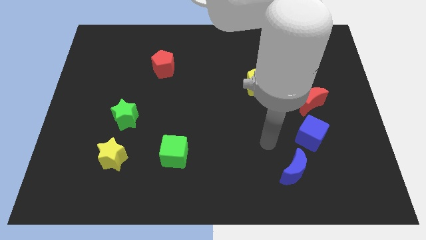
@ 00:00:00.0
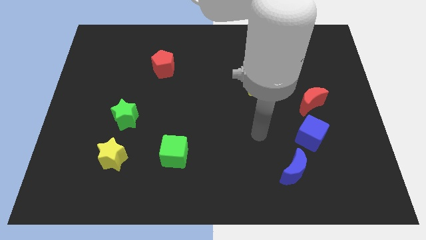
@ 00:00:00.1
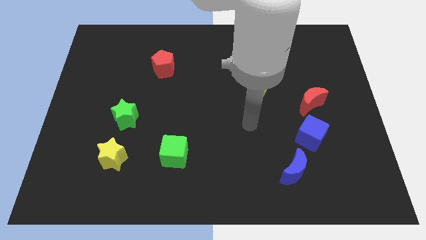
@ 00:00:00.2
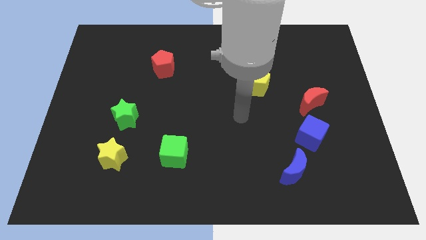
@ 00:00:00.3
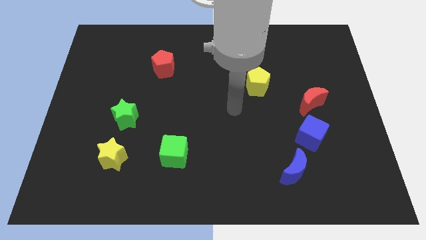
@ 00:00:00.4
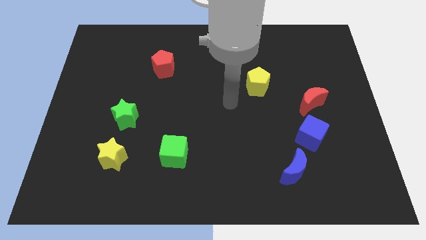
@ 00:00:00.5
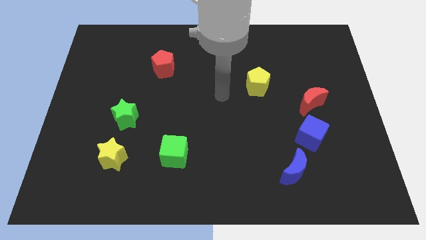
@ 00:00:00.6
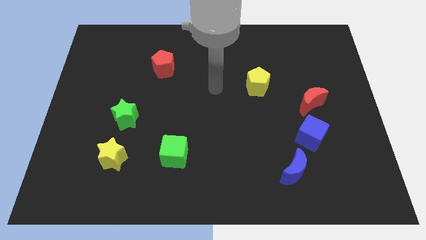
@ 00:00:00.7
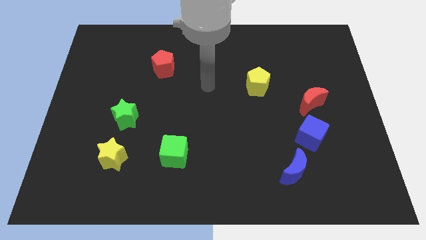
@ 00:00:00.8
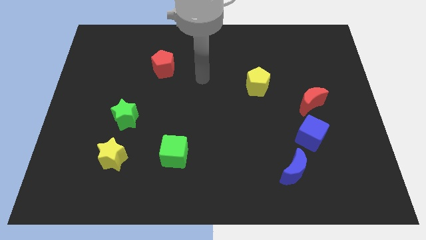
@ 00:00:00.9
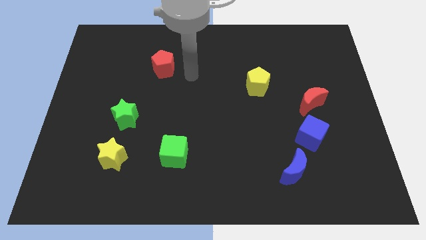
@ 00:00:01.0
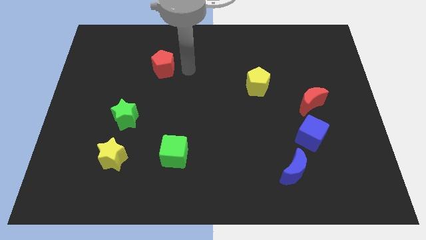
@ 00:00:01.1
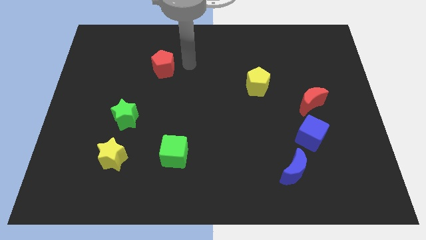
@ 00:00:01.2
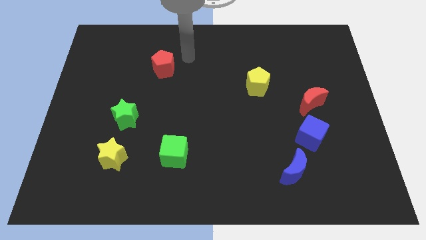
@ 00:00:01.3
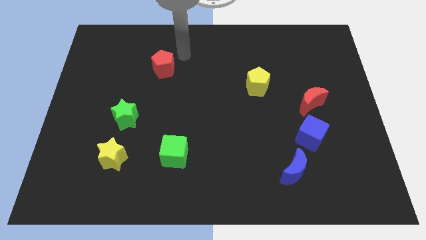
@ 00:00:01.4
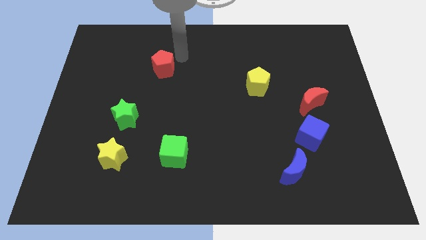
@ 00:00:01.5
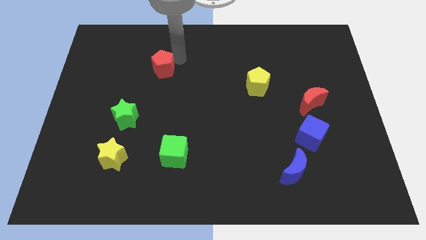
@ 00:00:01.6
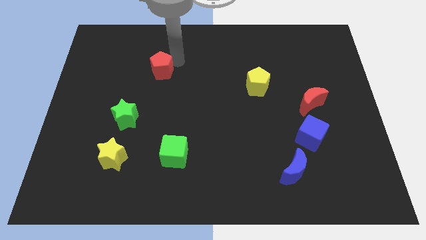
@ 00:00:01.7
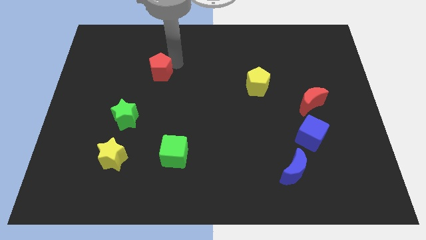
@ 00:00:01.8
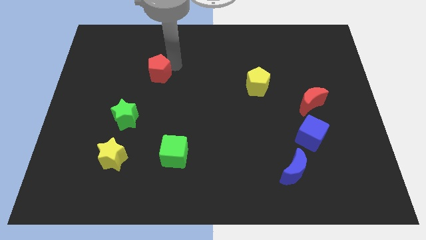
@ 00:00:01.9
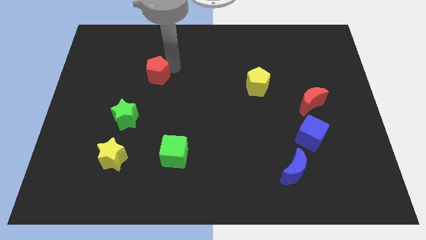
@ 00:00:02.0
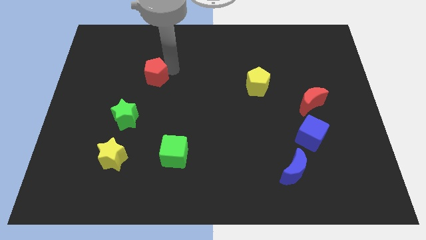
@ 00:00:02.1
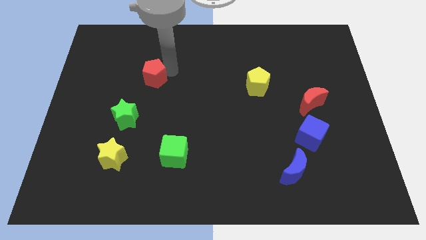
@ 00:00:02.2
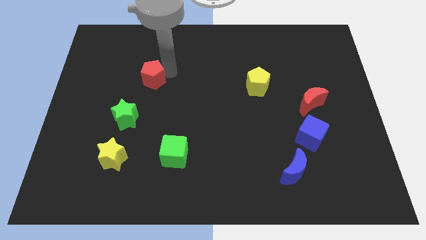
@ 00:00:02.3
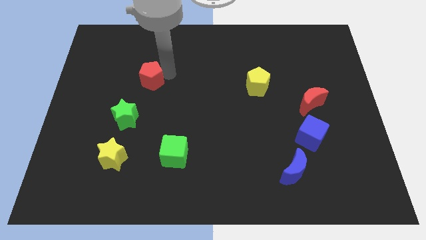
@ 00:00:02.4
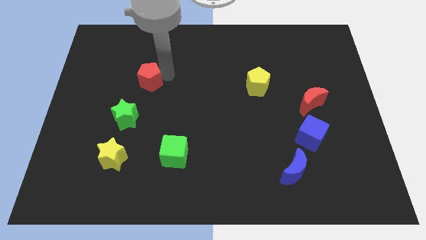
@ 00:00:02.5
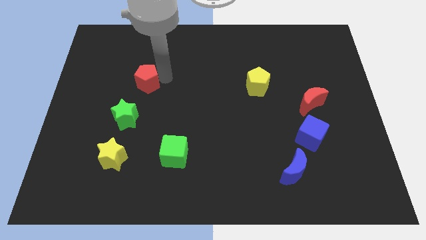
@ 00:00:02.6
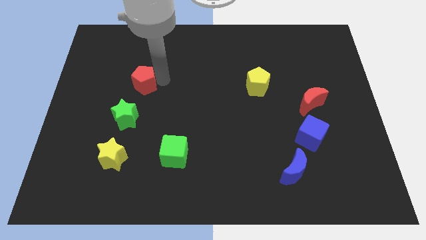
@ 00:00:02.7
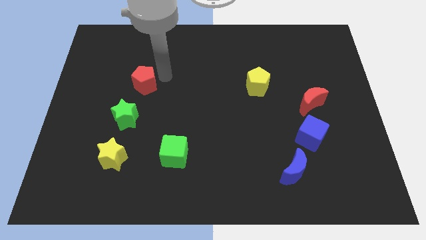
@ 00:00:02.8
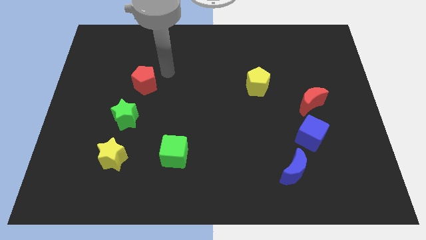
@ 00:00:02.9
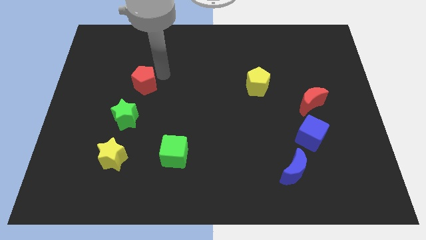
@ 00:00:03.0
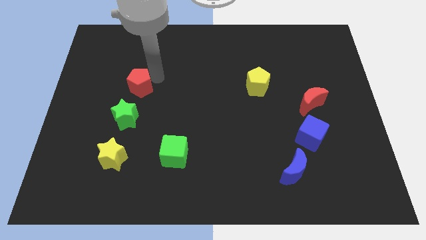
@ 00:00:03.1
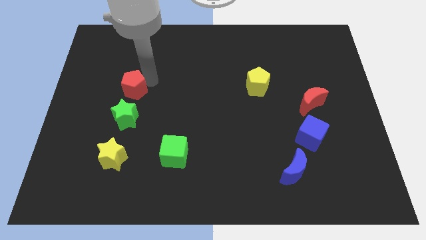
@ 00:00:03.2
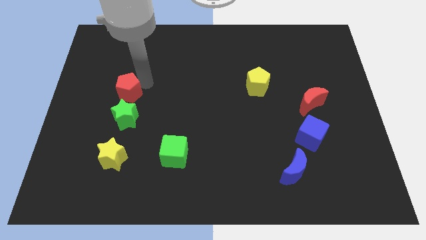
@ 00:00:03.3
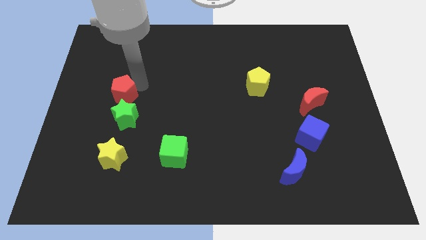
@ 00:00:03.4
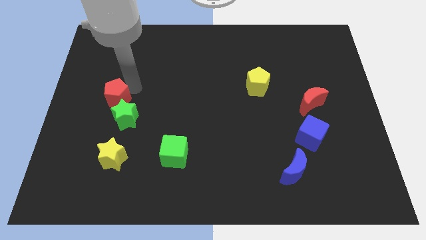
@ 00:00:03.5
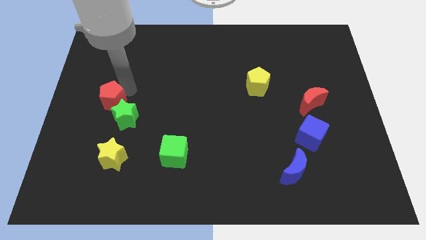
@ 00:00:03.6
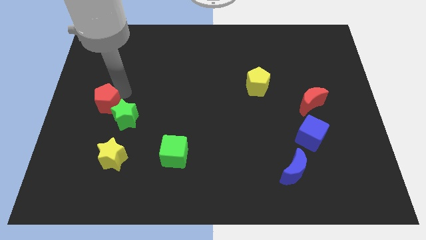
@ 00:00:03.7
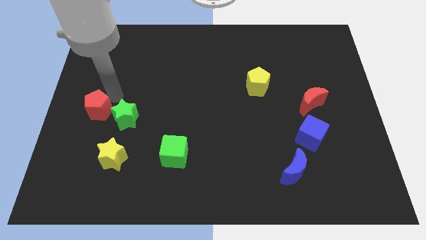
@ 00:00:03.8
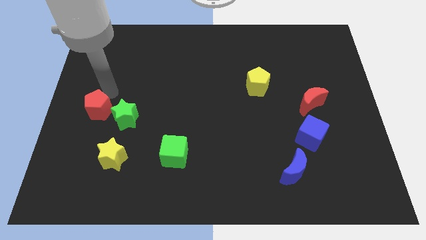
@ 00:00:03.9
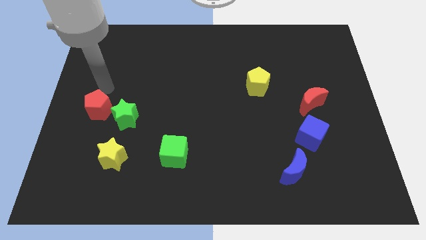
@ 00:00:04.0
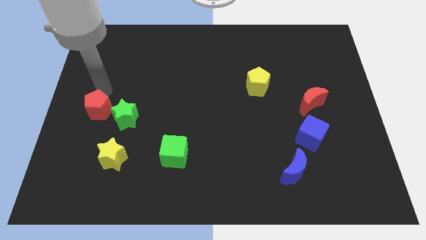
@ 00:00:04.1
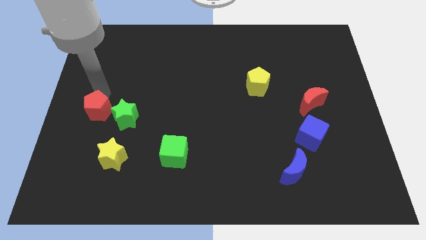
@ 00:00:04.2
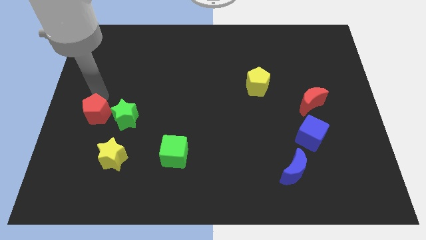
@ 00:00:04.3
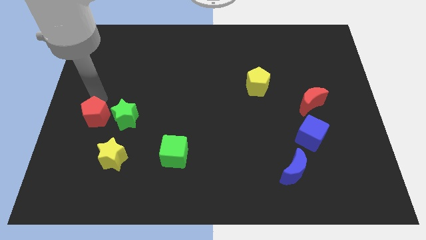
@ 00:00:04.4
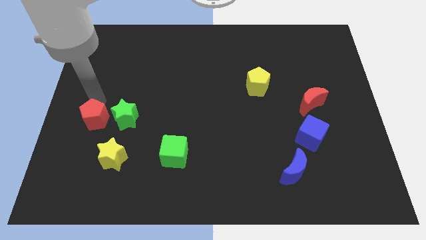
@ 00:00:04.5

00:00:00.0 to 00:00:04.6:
put the red pentagon to the top left of the yellow star

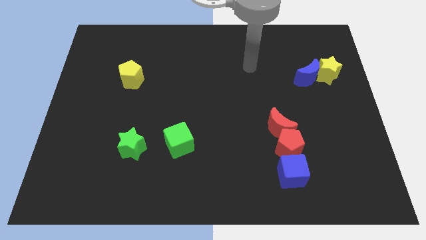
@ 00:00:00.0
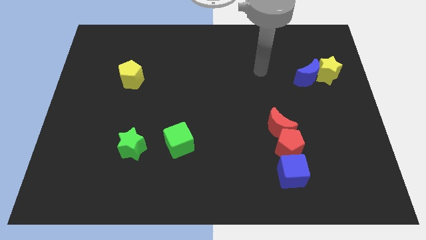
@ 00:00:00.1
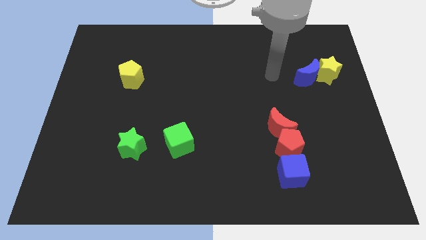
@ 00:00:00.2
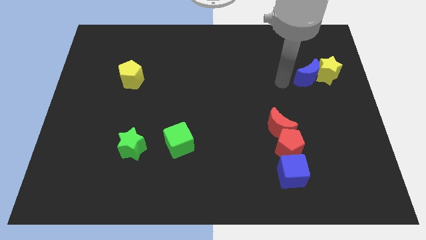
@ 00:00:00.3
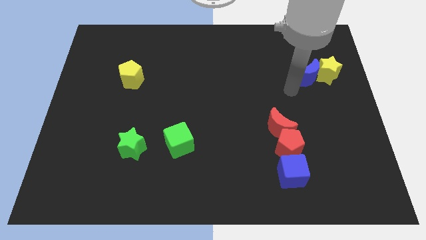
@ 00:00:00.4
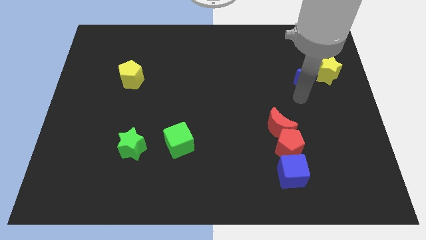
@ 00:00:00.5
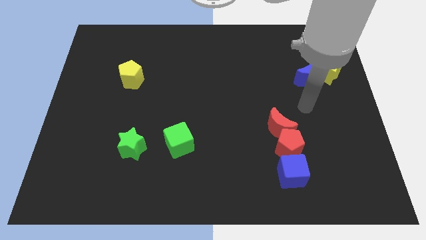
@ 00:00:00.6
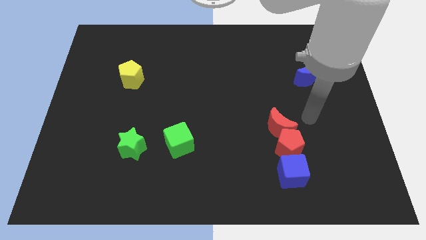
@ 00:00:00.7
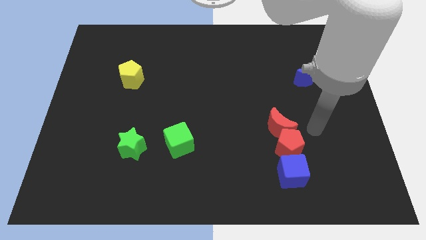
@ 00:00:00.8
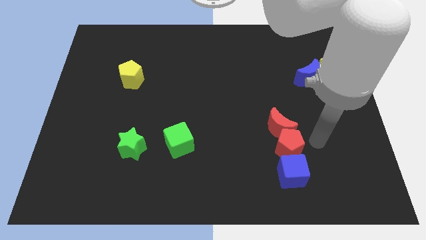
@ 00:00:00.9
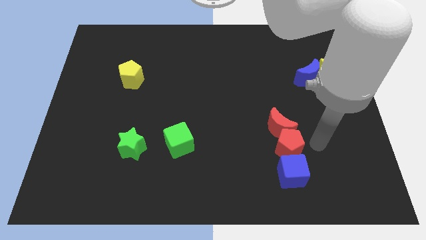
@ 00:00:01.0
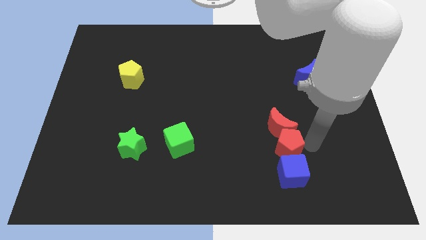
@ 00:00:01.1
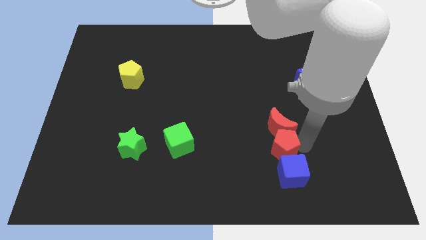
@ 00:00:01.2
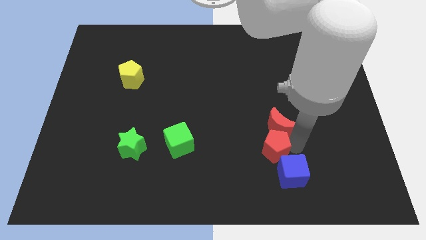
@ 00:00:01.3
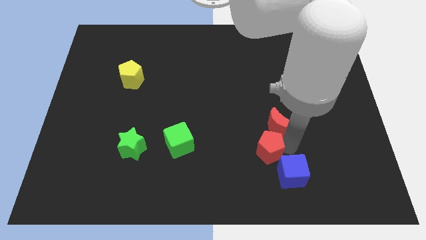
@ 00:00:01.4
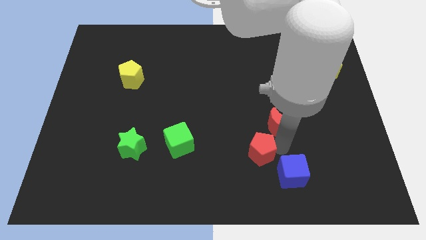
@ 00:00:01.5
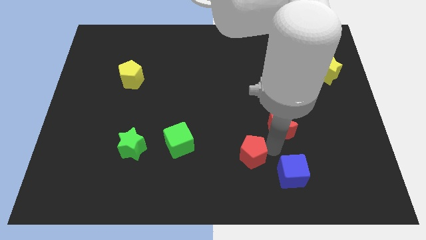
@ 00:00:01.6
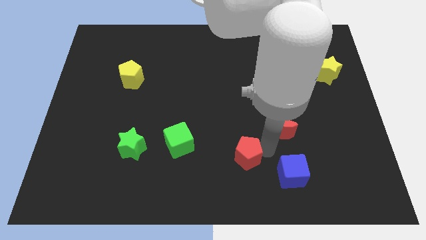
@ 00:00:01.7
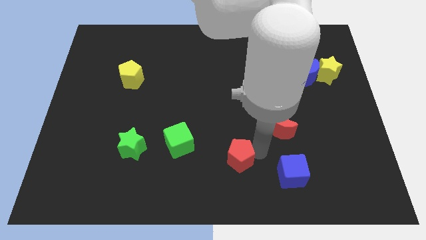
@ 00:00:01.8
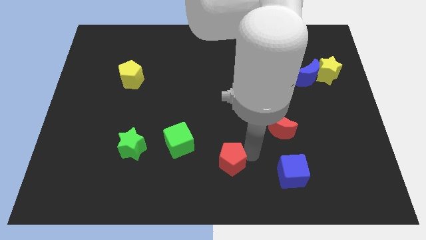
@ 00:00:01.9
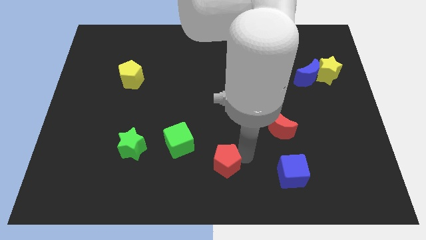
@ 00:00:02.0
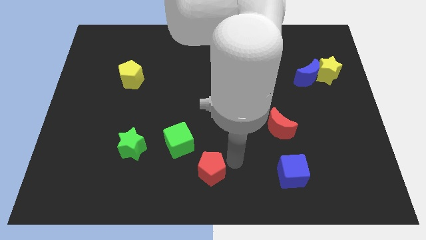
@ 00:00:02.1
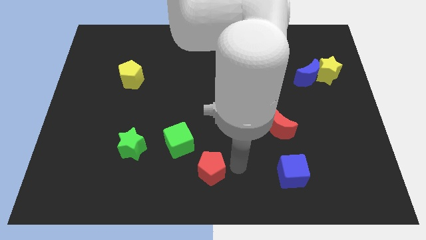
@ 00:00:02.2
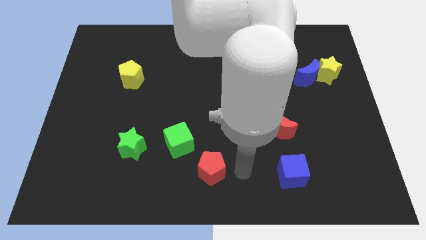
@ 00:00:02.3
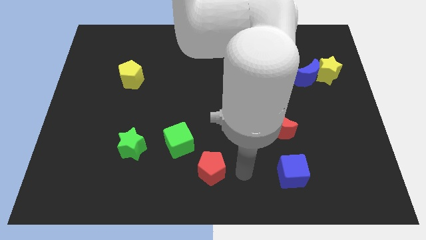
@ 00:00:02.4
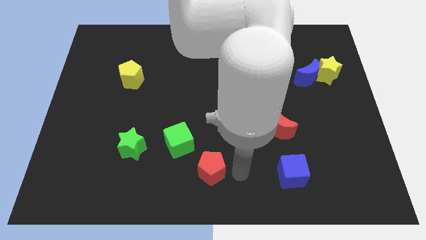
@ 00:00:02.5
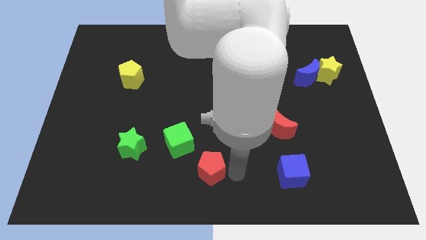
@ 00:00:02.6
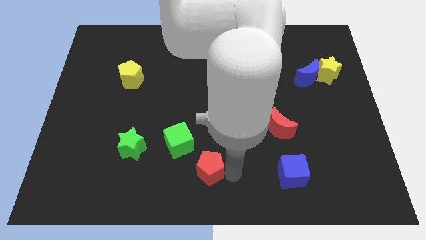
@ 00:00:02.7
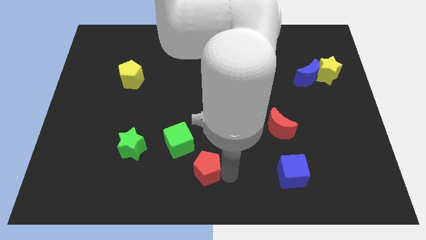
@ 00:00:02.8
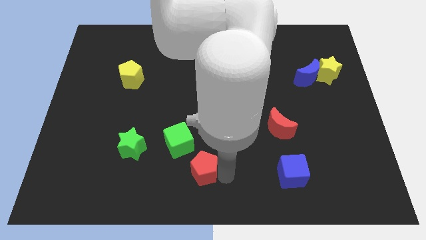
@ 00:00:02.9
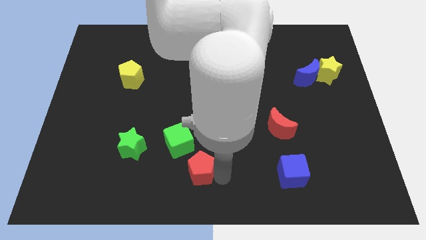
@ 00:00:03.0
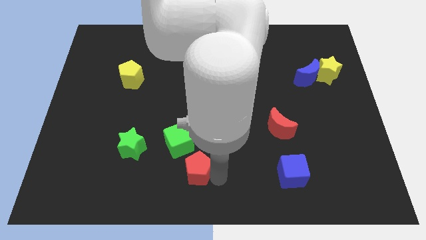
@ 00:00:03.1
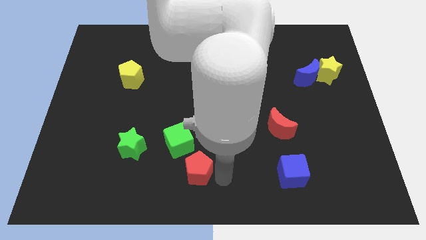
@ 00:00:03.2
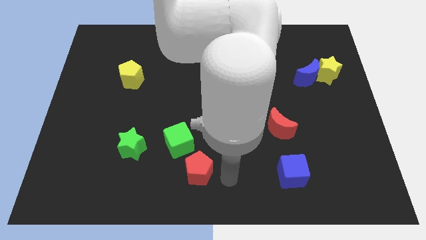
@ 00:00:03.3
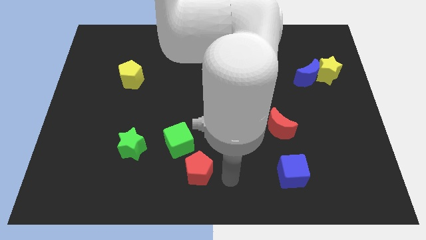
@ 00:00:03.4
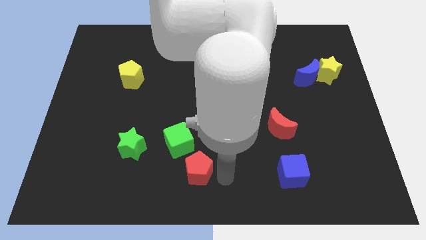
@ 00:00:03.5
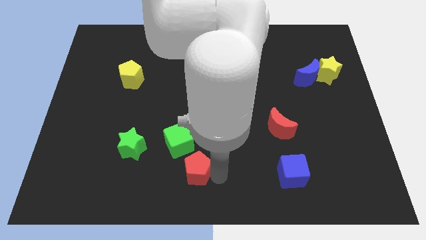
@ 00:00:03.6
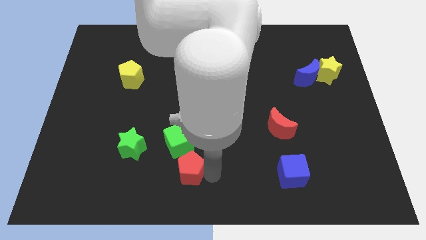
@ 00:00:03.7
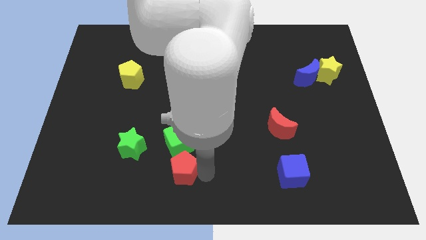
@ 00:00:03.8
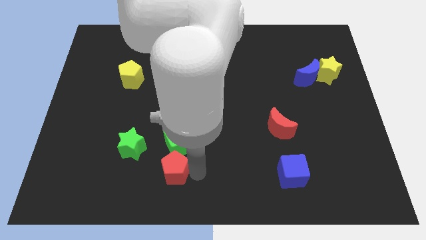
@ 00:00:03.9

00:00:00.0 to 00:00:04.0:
put the red pentagon to the bottom right of the green star
